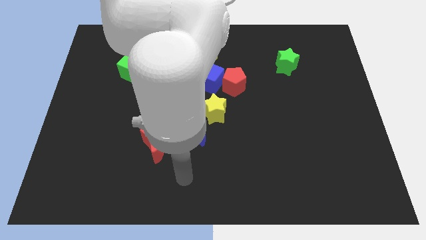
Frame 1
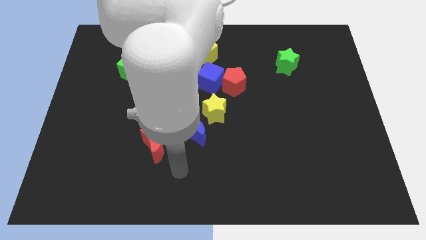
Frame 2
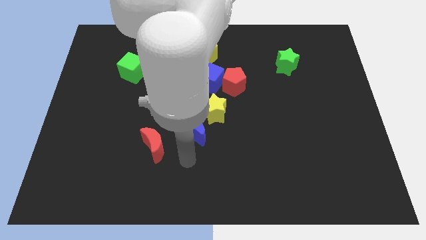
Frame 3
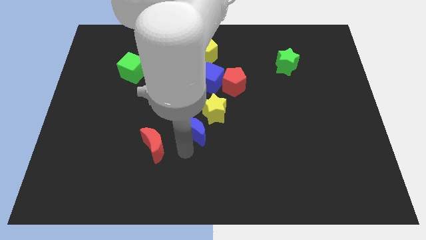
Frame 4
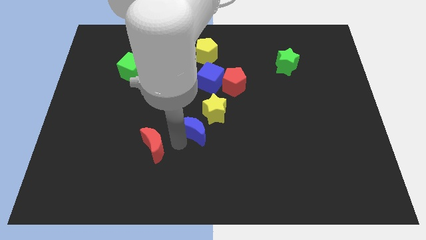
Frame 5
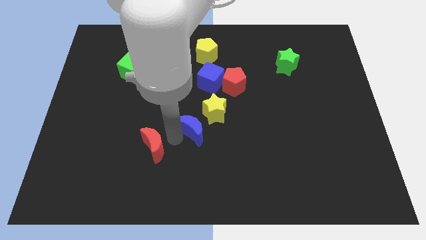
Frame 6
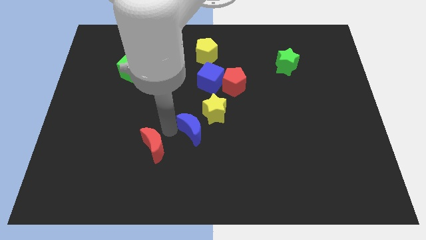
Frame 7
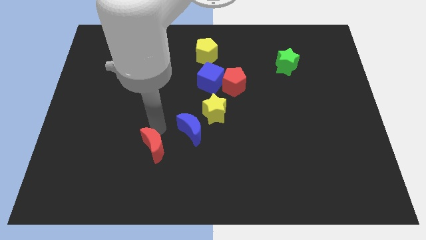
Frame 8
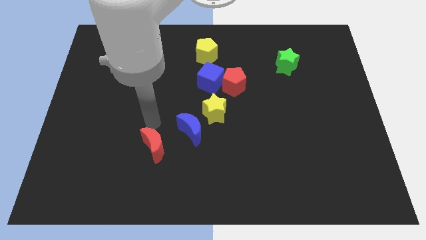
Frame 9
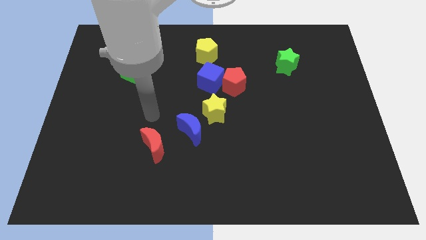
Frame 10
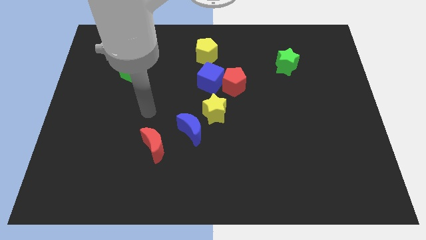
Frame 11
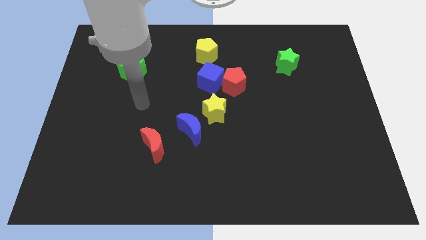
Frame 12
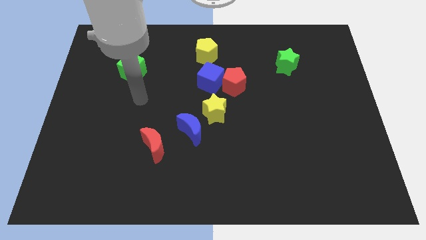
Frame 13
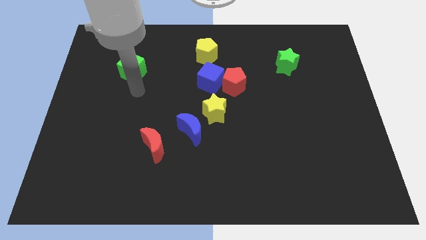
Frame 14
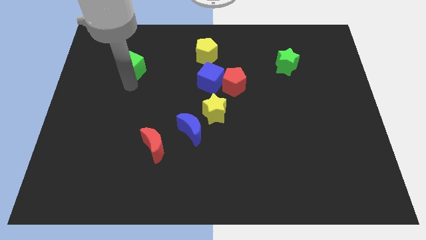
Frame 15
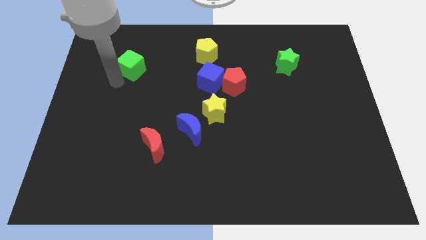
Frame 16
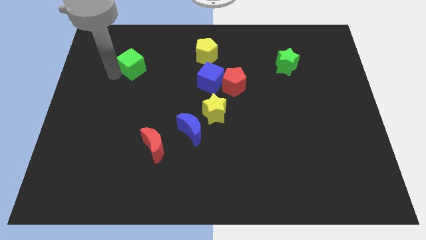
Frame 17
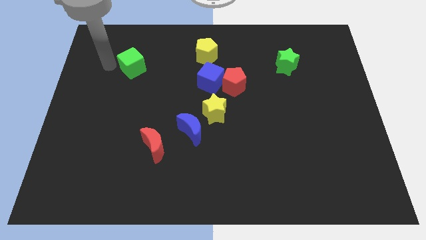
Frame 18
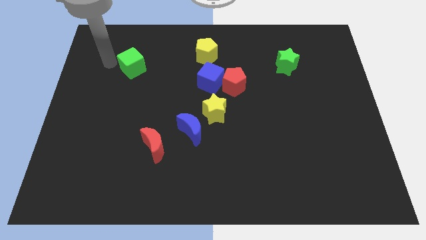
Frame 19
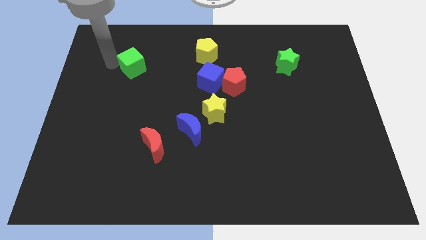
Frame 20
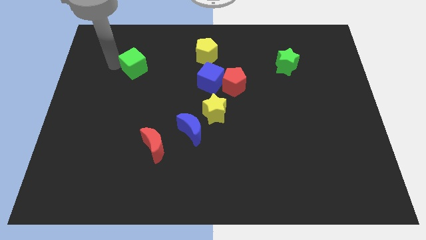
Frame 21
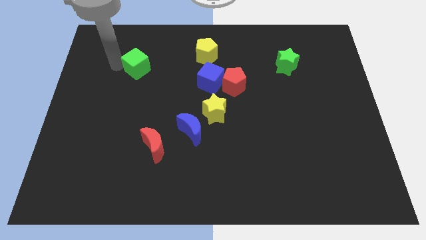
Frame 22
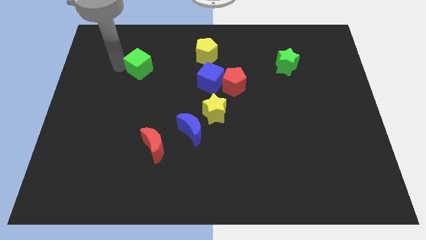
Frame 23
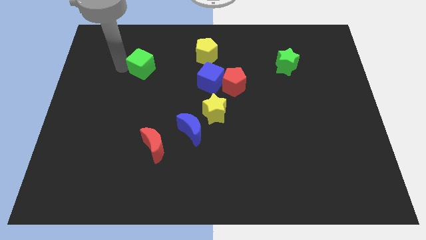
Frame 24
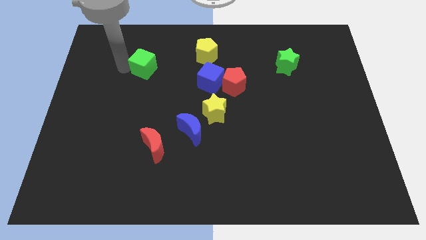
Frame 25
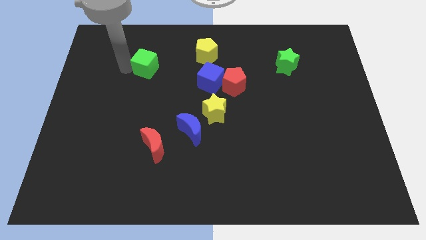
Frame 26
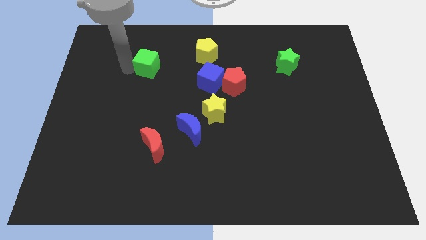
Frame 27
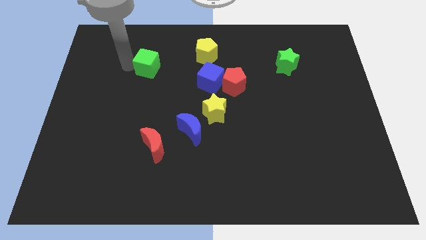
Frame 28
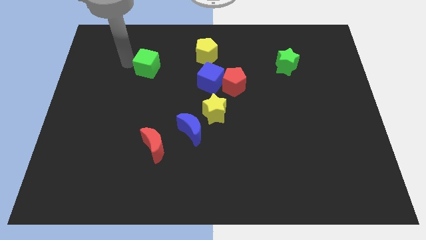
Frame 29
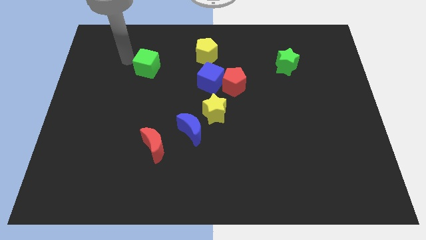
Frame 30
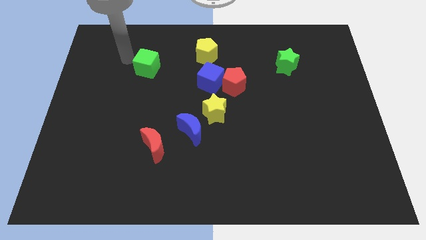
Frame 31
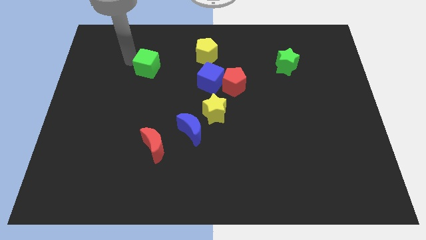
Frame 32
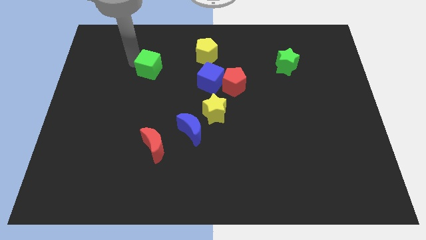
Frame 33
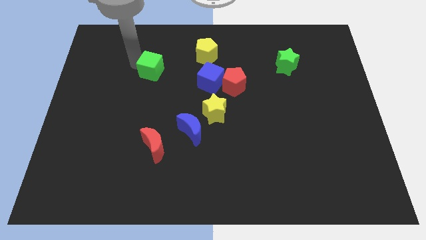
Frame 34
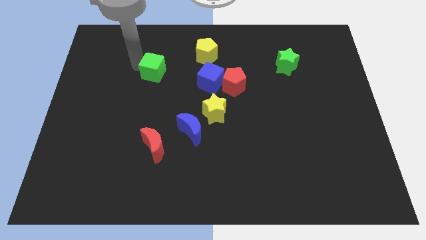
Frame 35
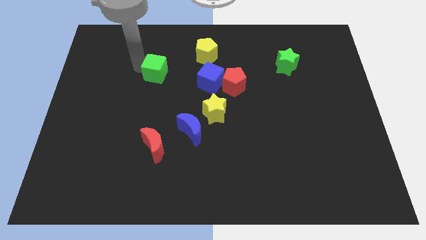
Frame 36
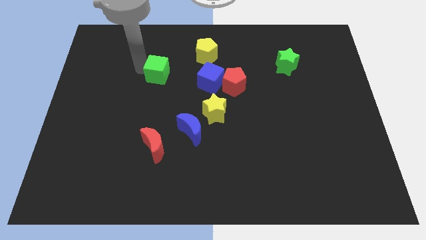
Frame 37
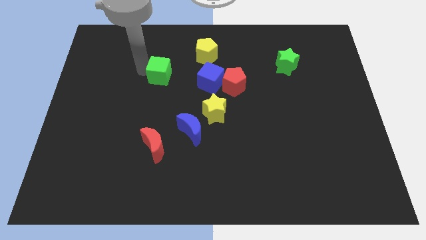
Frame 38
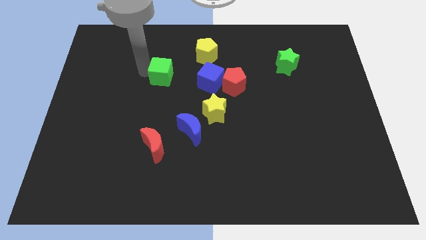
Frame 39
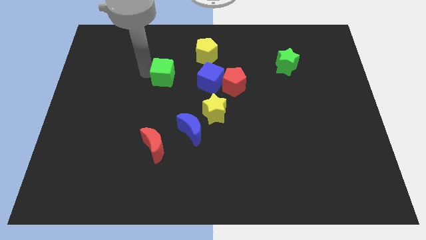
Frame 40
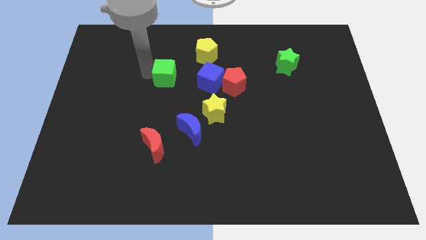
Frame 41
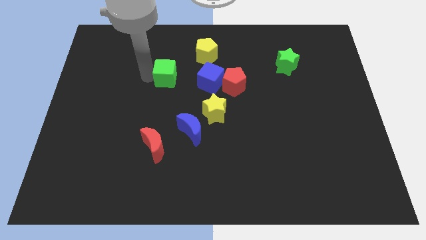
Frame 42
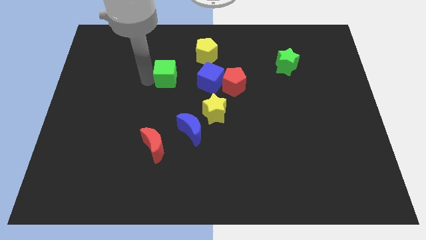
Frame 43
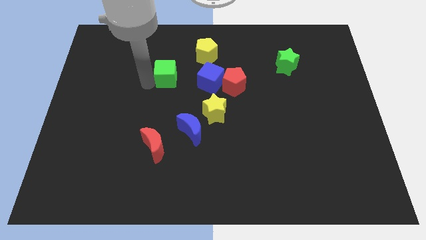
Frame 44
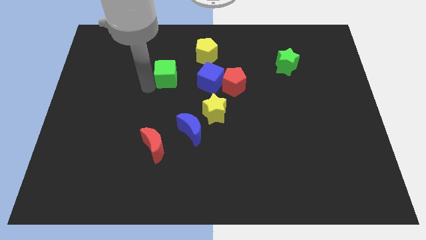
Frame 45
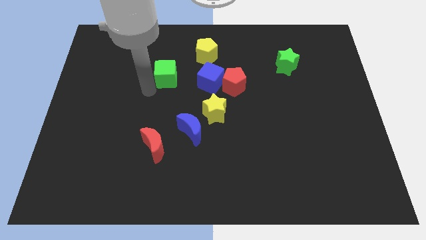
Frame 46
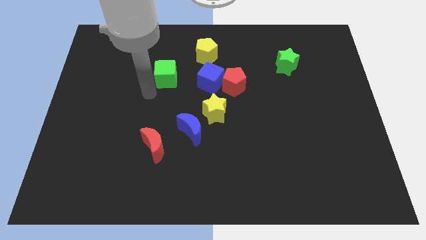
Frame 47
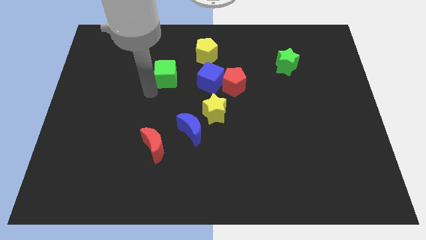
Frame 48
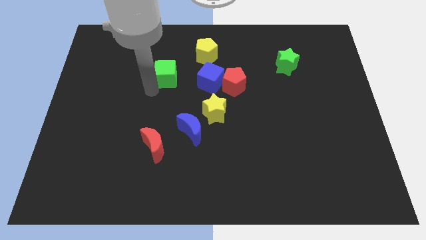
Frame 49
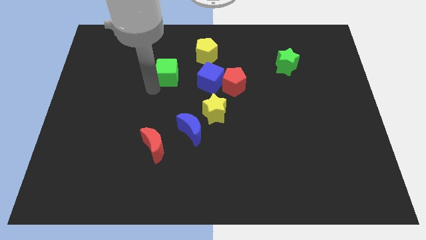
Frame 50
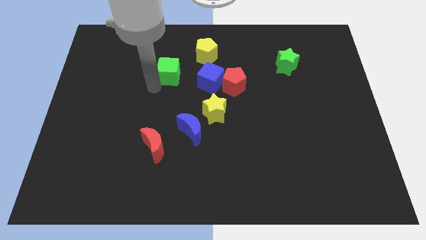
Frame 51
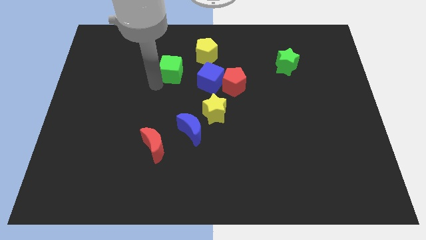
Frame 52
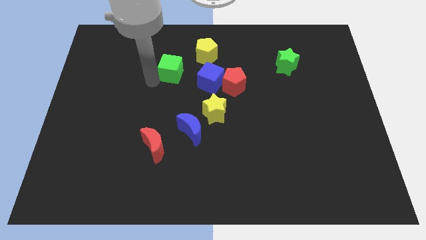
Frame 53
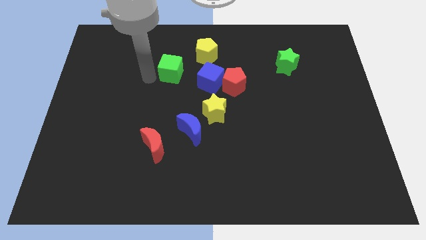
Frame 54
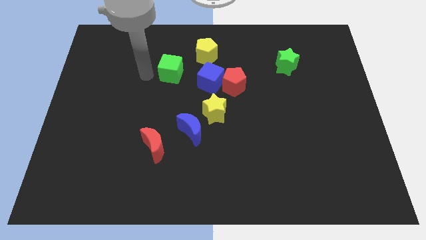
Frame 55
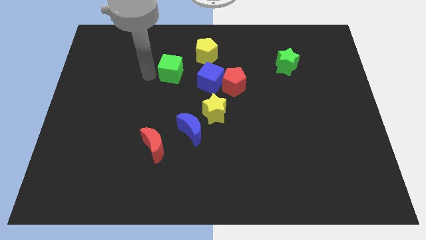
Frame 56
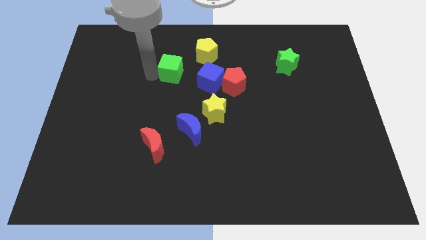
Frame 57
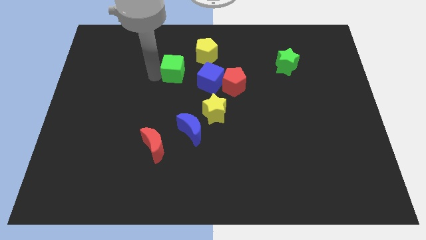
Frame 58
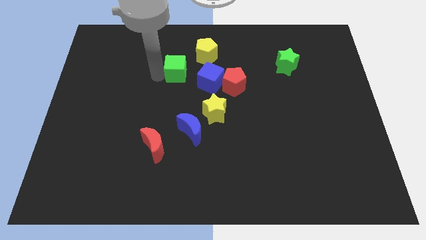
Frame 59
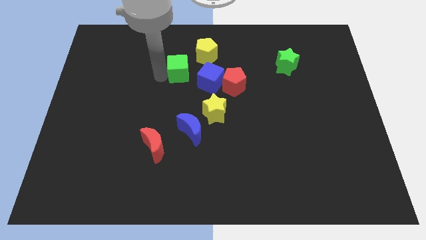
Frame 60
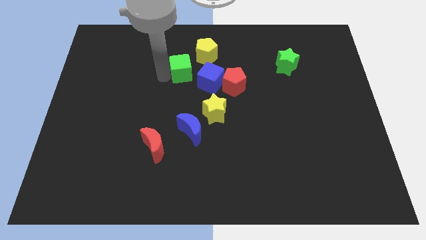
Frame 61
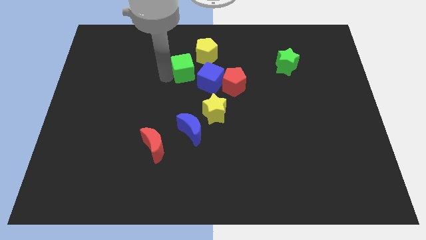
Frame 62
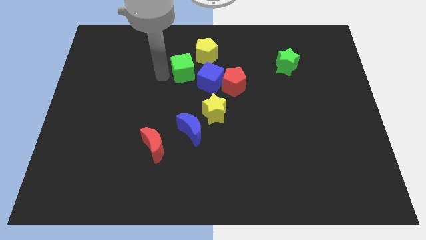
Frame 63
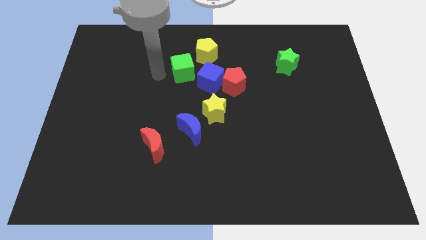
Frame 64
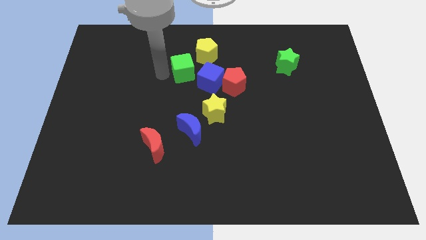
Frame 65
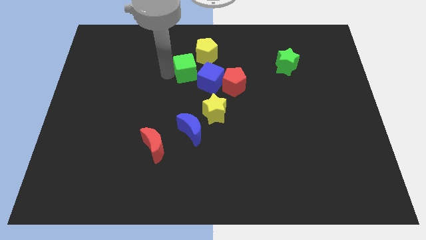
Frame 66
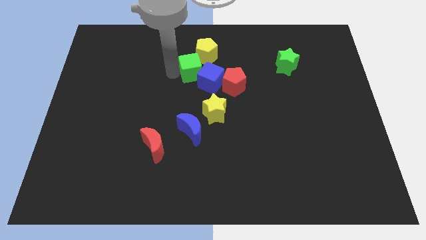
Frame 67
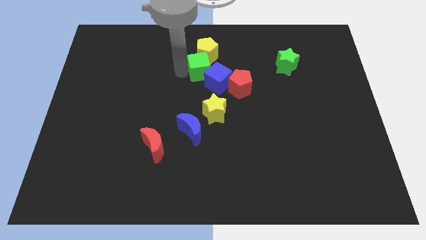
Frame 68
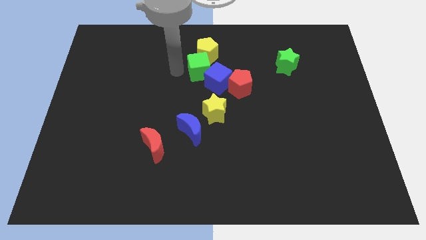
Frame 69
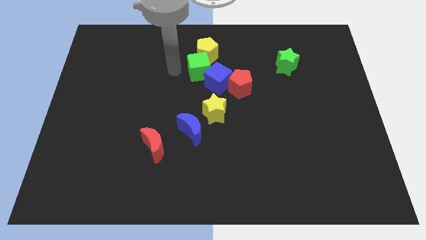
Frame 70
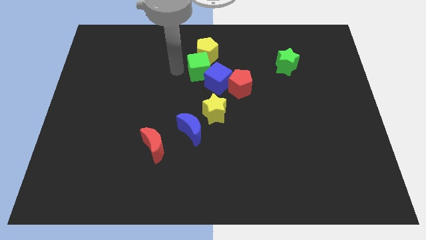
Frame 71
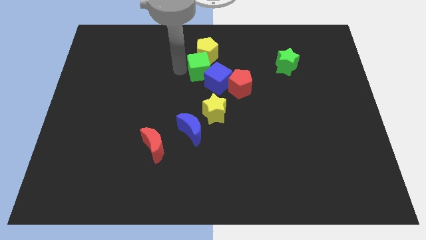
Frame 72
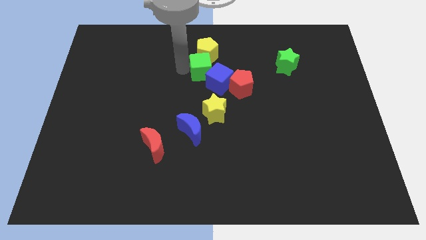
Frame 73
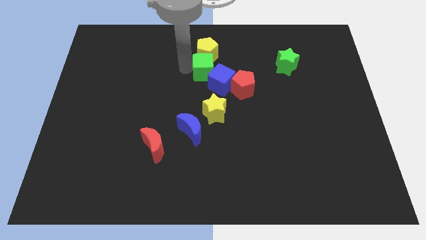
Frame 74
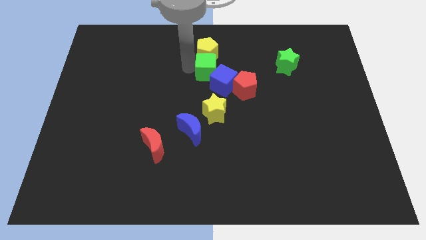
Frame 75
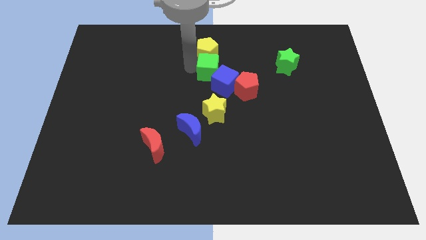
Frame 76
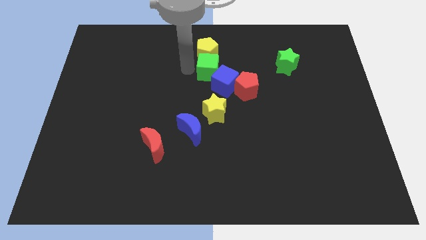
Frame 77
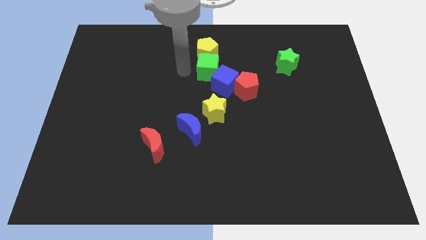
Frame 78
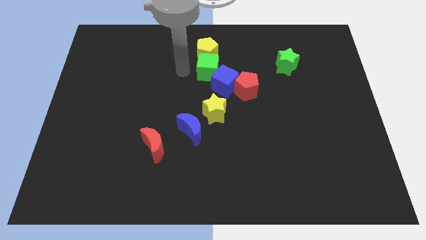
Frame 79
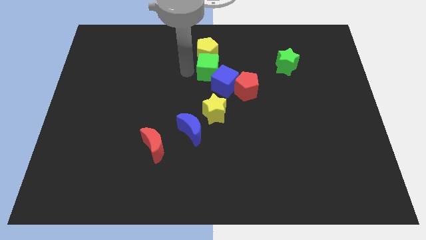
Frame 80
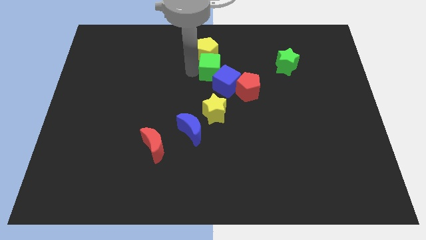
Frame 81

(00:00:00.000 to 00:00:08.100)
push the green cube to the right
